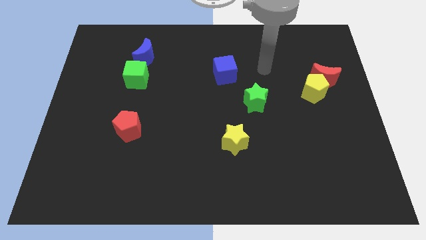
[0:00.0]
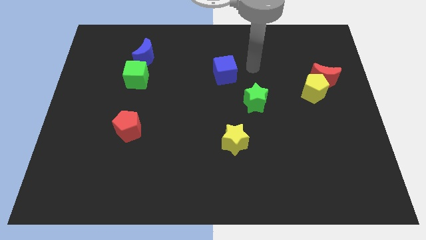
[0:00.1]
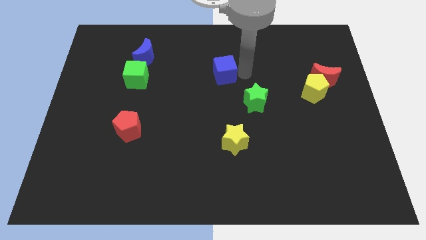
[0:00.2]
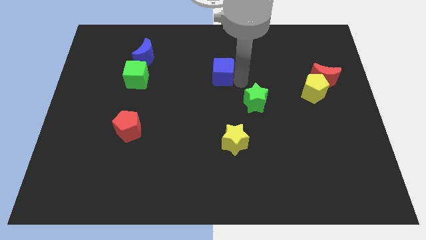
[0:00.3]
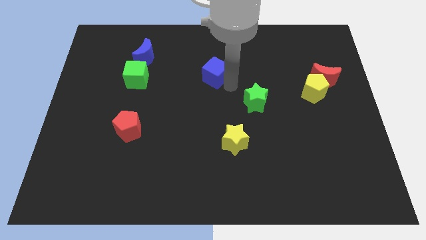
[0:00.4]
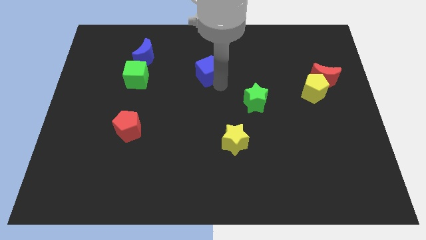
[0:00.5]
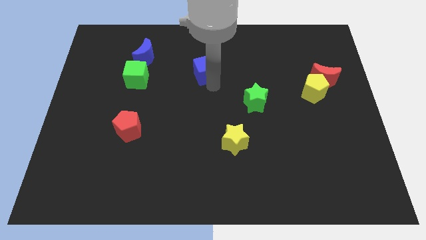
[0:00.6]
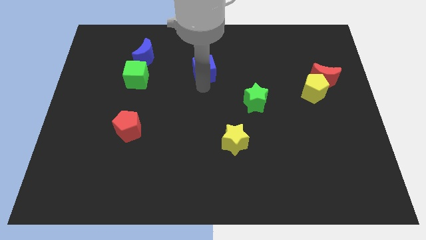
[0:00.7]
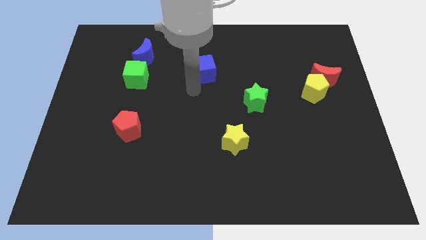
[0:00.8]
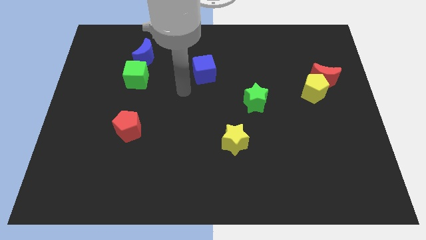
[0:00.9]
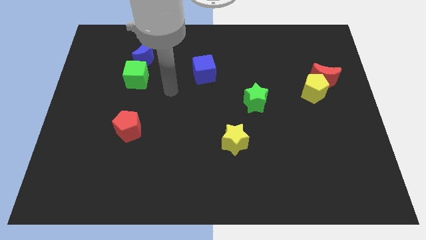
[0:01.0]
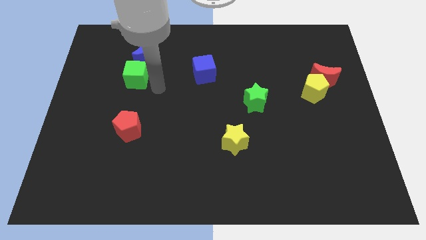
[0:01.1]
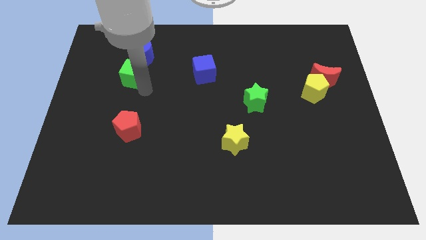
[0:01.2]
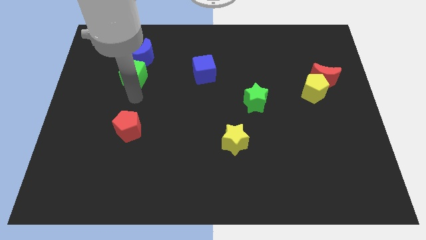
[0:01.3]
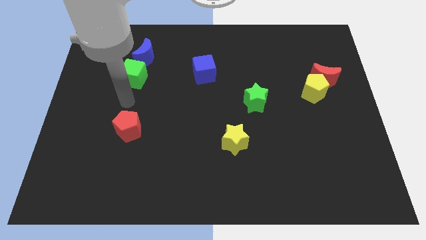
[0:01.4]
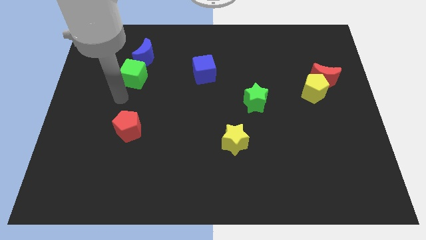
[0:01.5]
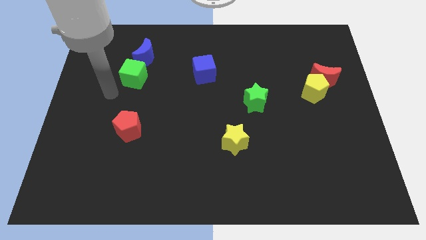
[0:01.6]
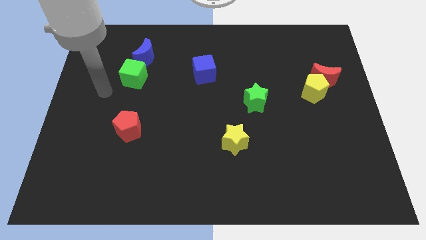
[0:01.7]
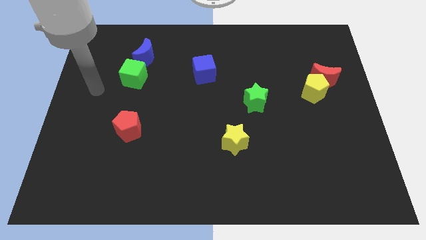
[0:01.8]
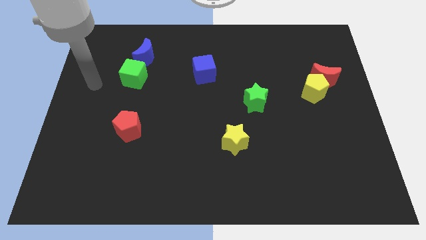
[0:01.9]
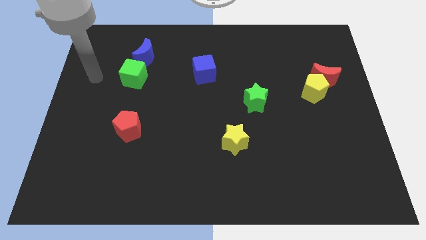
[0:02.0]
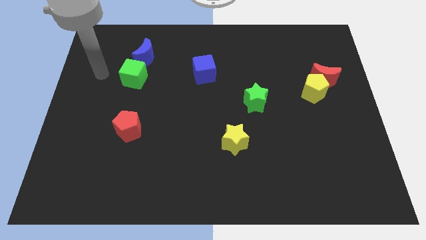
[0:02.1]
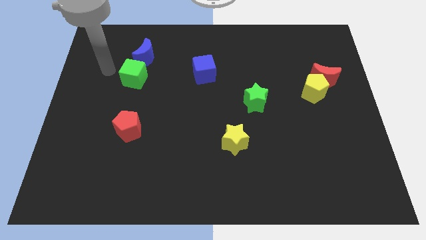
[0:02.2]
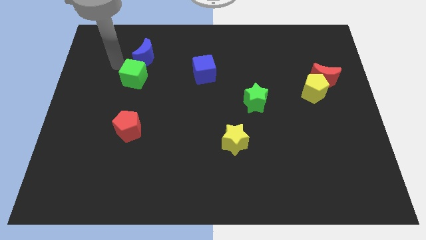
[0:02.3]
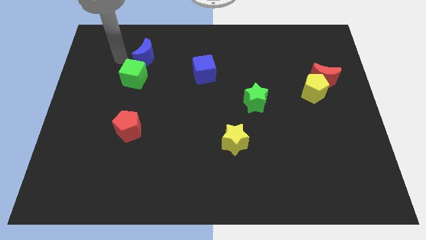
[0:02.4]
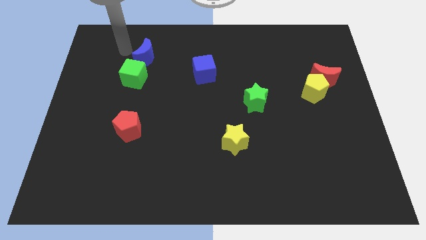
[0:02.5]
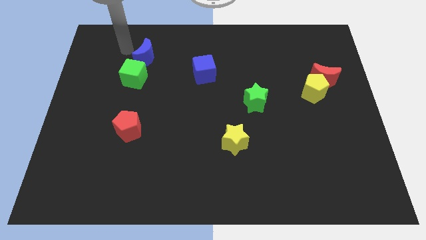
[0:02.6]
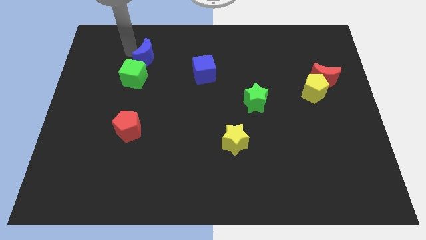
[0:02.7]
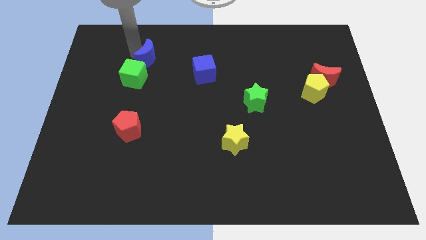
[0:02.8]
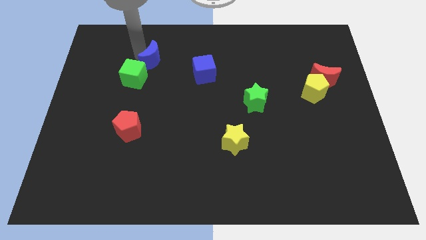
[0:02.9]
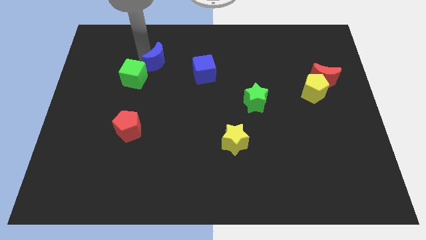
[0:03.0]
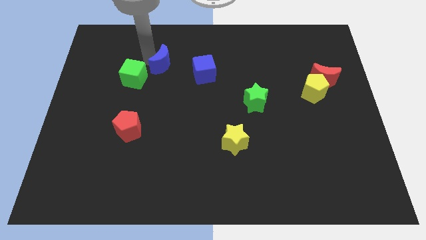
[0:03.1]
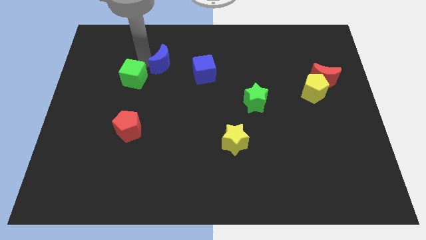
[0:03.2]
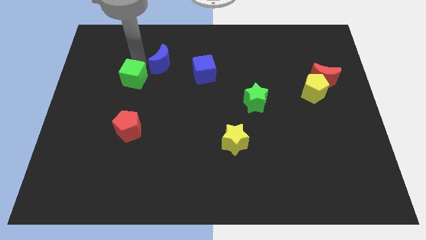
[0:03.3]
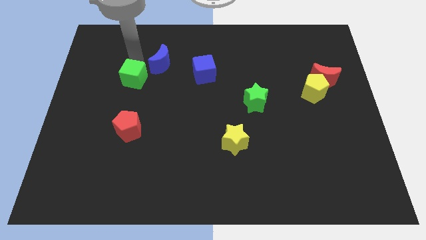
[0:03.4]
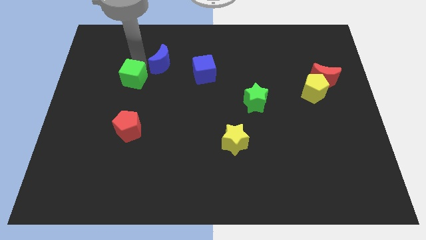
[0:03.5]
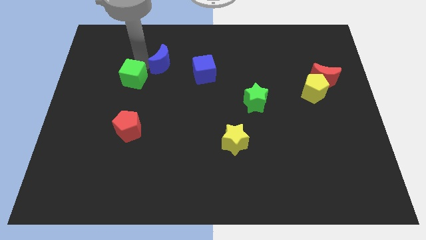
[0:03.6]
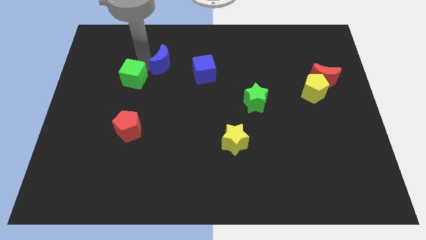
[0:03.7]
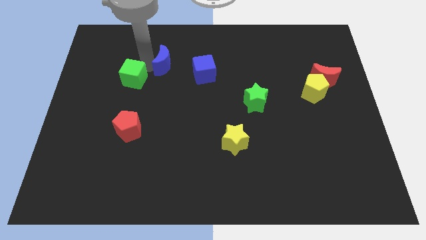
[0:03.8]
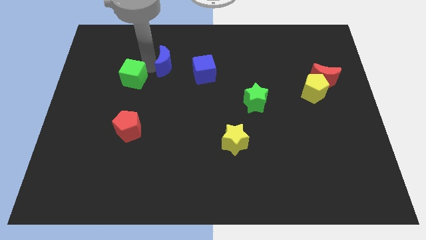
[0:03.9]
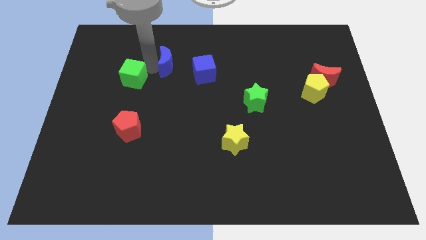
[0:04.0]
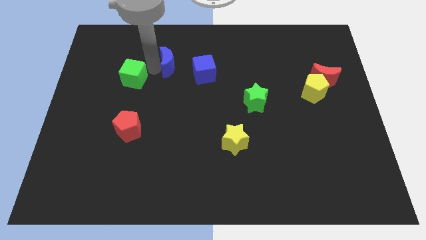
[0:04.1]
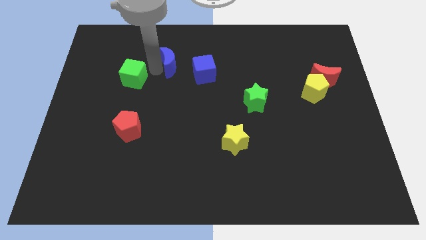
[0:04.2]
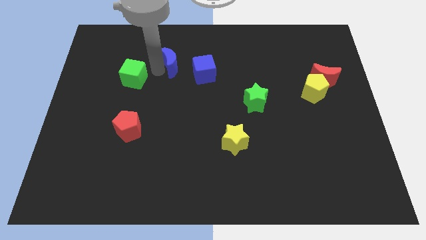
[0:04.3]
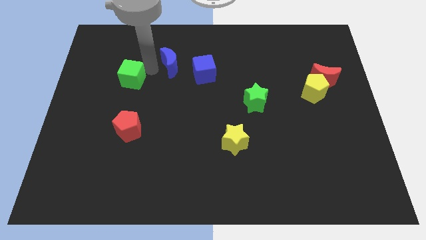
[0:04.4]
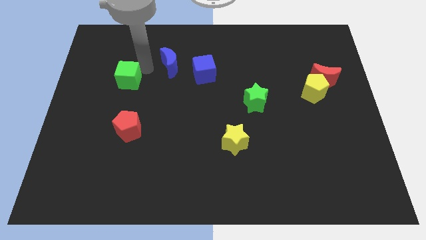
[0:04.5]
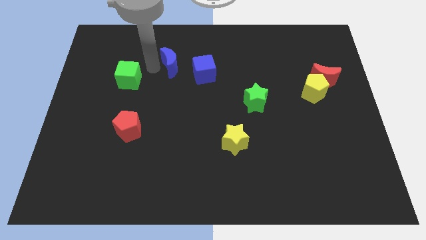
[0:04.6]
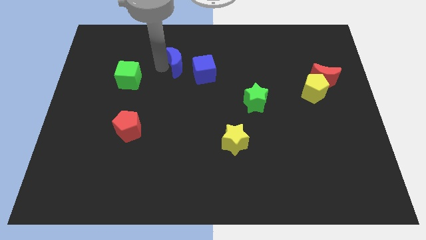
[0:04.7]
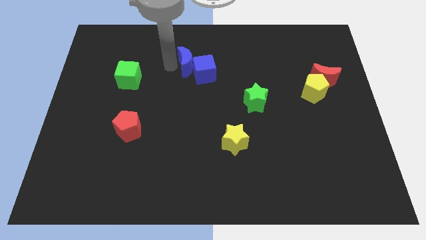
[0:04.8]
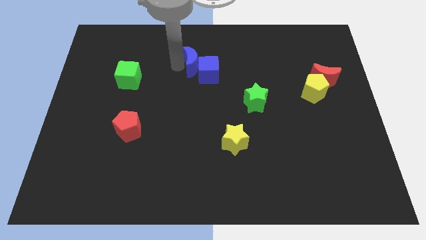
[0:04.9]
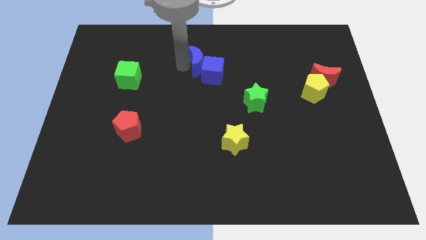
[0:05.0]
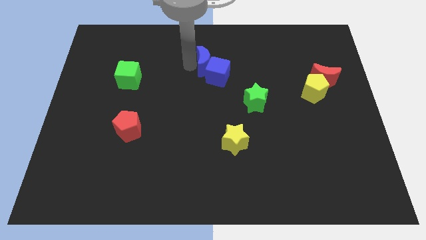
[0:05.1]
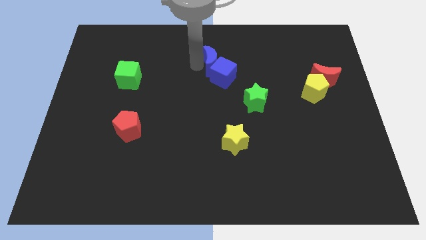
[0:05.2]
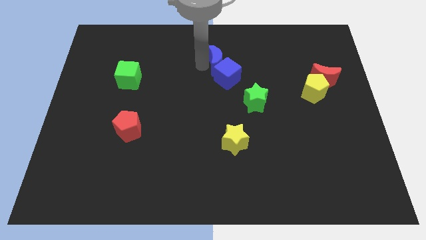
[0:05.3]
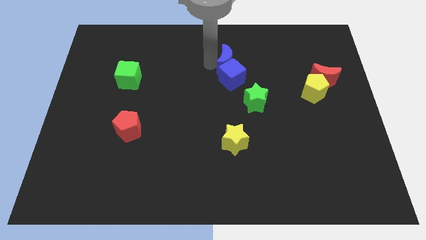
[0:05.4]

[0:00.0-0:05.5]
move the blue moon diagonally up and to the right of the blue cube

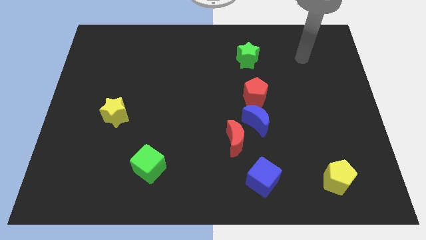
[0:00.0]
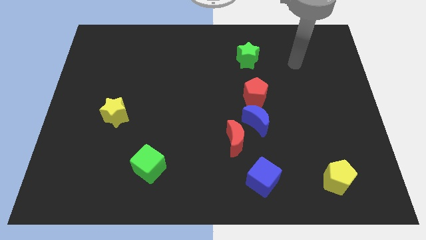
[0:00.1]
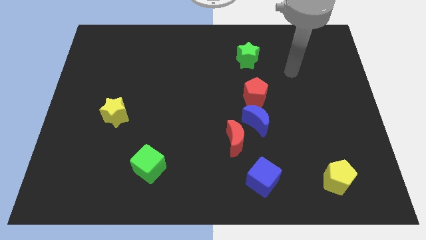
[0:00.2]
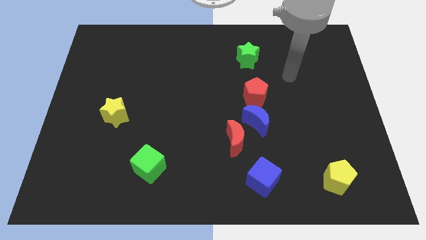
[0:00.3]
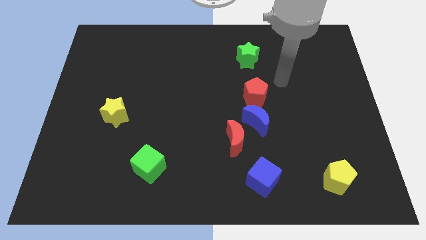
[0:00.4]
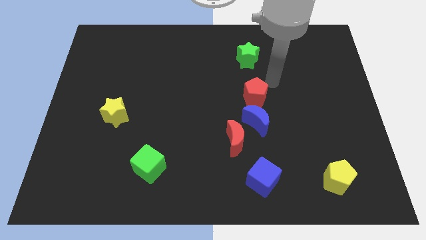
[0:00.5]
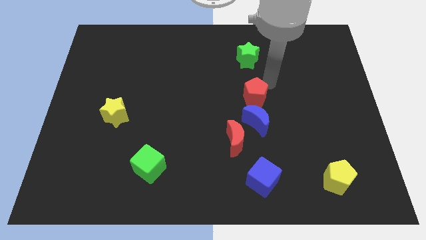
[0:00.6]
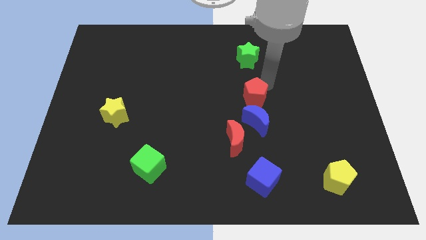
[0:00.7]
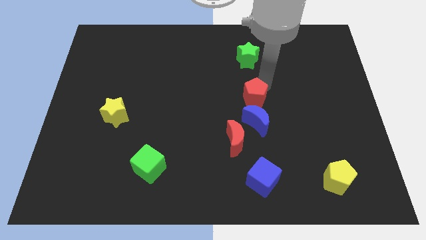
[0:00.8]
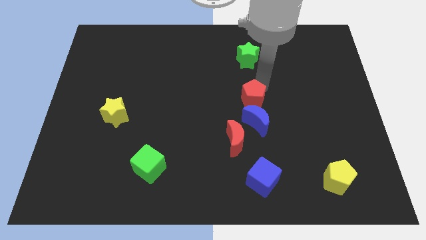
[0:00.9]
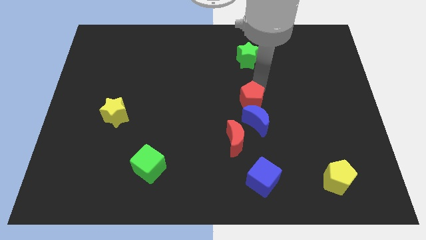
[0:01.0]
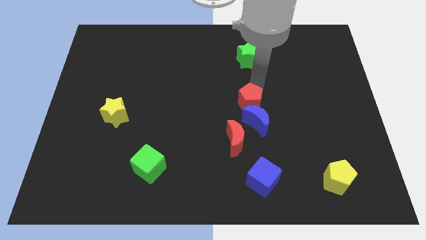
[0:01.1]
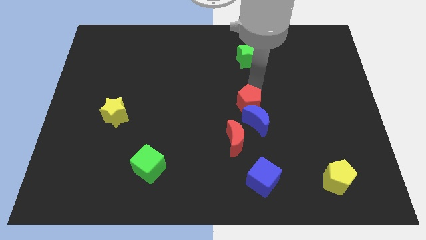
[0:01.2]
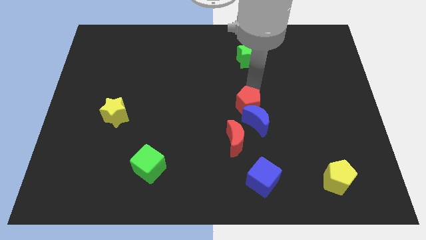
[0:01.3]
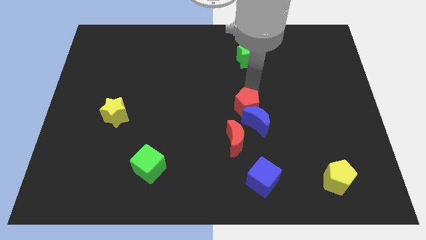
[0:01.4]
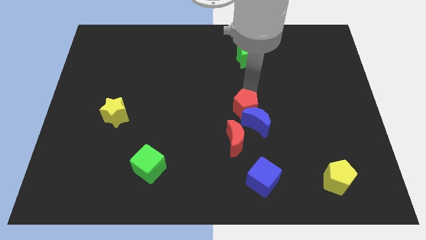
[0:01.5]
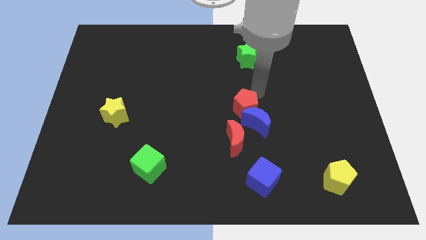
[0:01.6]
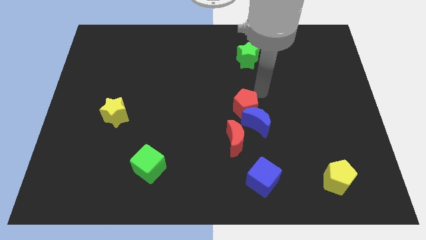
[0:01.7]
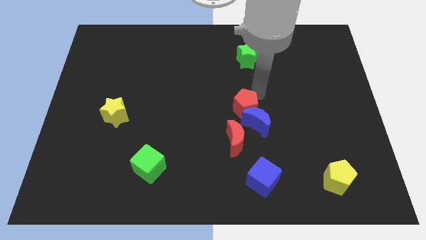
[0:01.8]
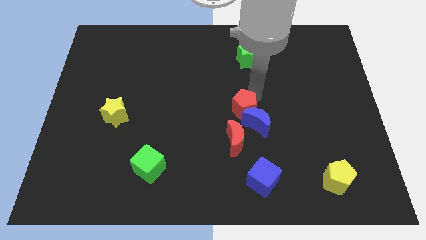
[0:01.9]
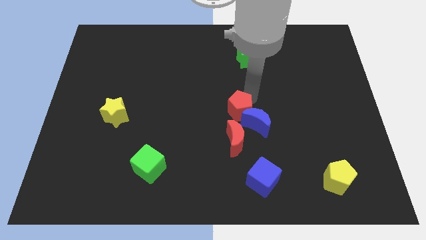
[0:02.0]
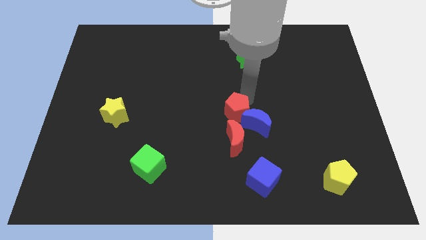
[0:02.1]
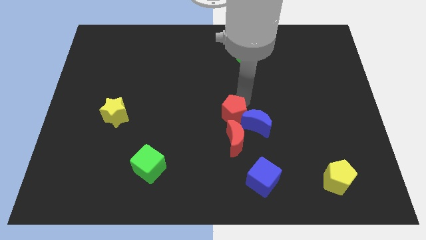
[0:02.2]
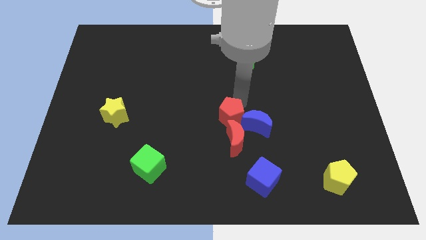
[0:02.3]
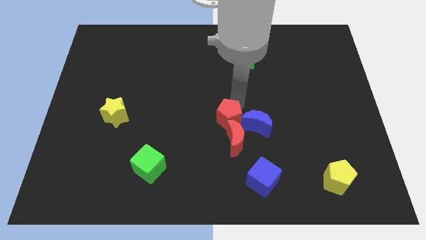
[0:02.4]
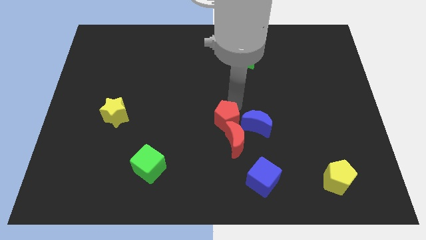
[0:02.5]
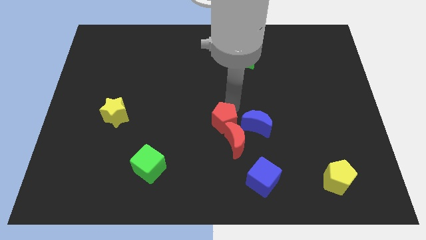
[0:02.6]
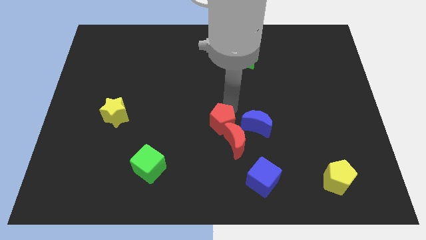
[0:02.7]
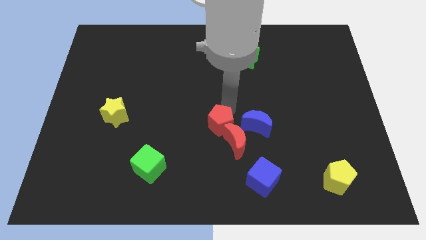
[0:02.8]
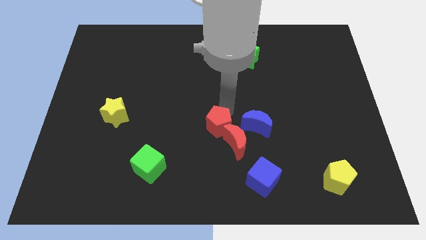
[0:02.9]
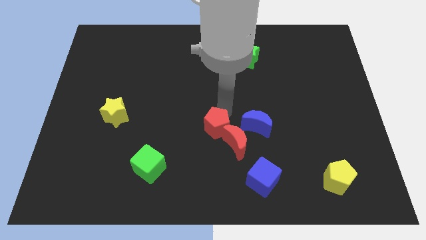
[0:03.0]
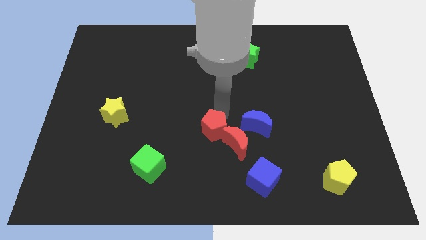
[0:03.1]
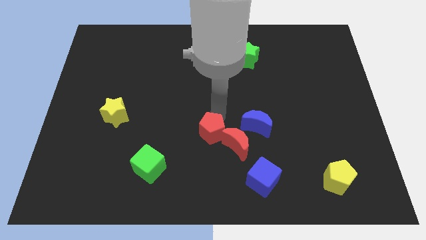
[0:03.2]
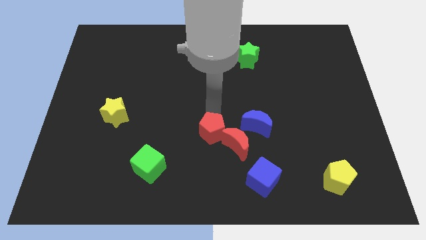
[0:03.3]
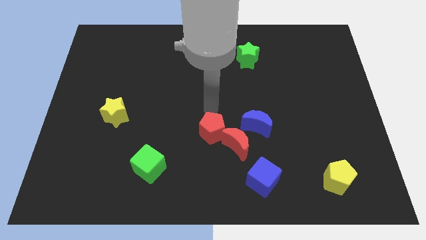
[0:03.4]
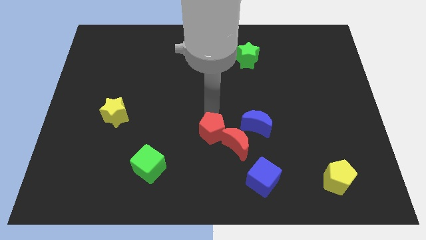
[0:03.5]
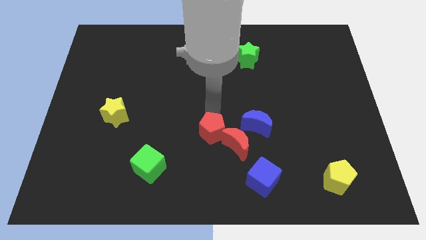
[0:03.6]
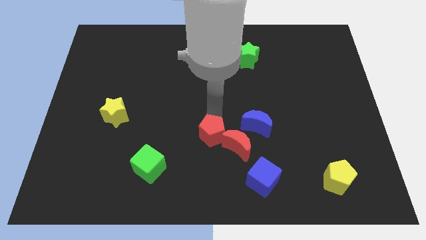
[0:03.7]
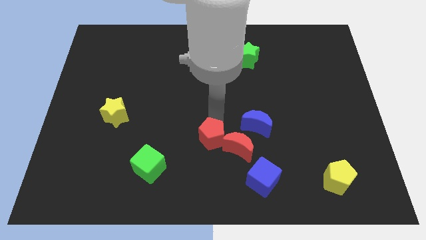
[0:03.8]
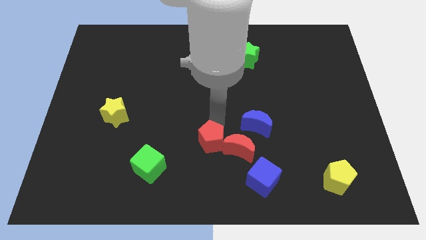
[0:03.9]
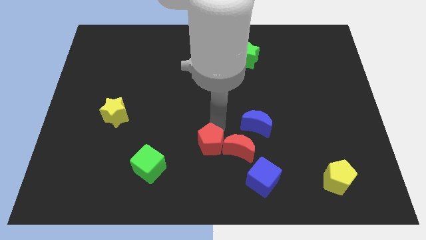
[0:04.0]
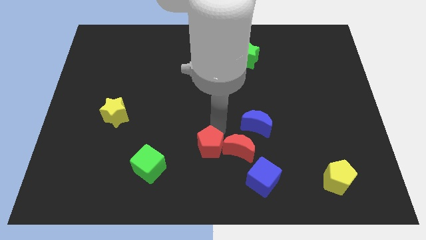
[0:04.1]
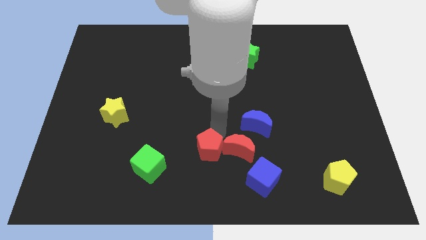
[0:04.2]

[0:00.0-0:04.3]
push the red pentagon diagonally down and to the left of the red moon
